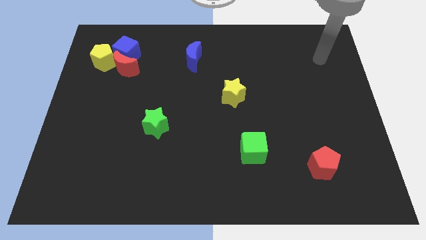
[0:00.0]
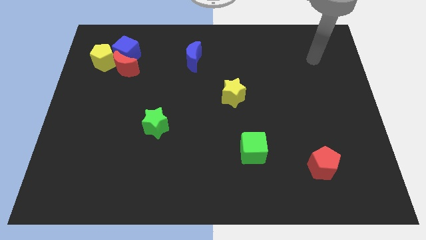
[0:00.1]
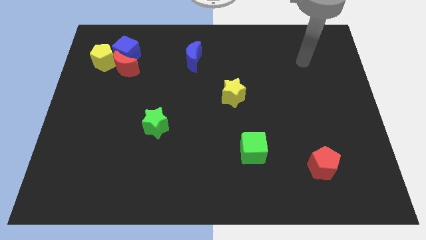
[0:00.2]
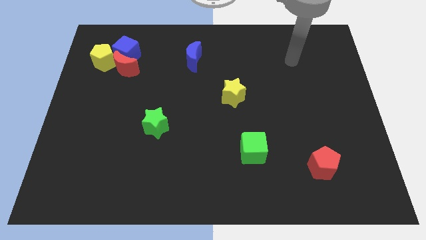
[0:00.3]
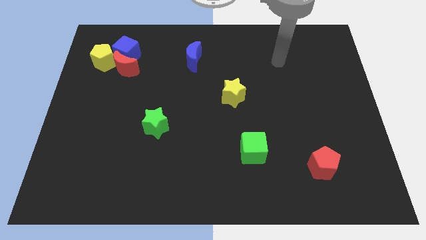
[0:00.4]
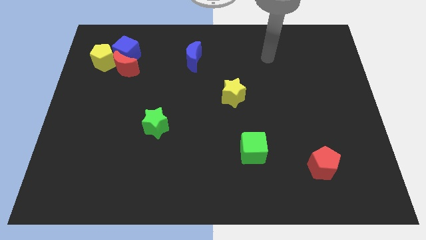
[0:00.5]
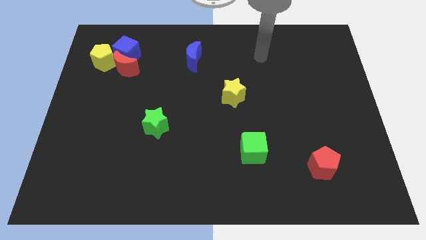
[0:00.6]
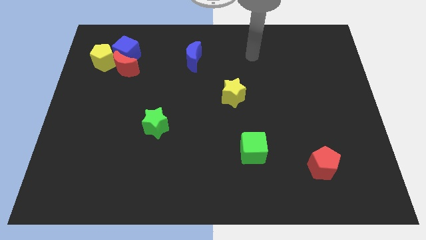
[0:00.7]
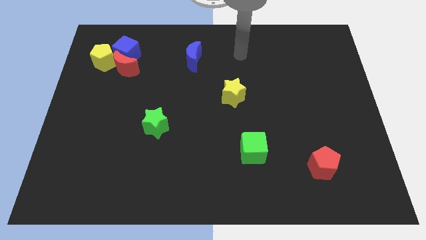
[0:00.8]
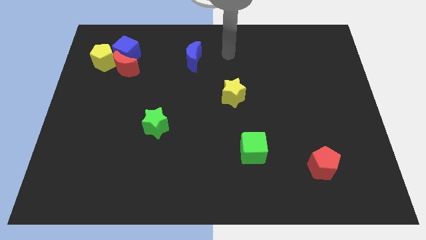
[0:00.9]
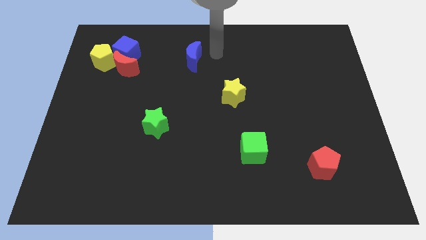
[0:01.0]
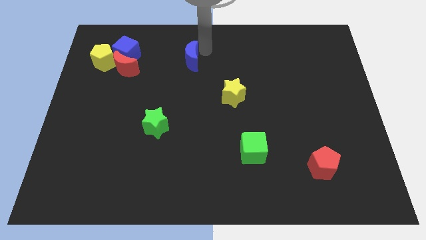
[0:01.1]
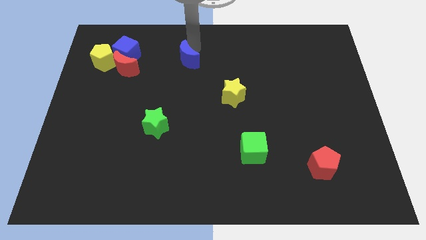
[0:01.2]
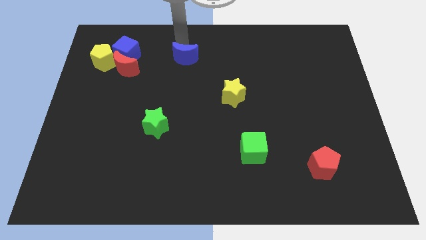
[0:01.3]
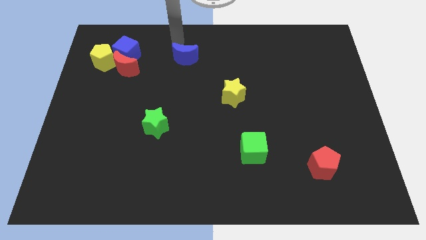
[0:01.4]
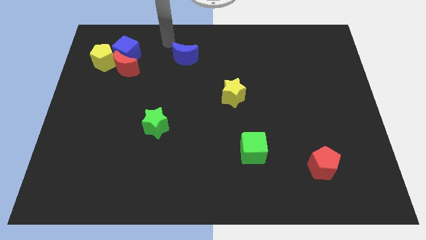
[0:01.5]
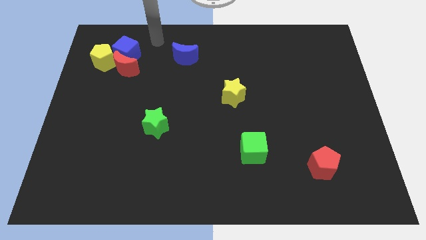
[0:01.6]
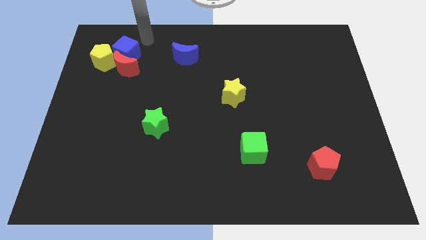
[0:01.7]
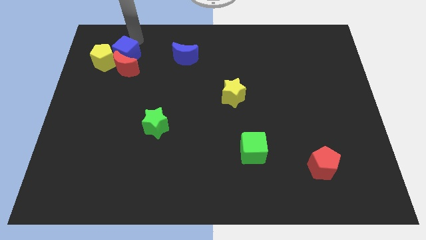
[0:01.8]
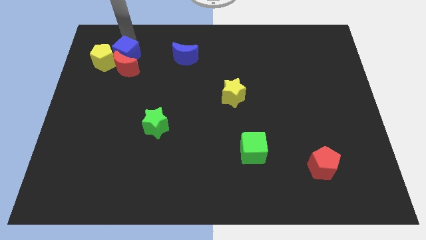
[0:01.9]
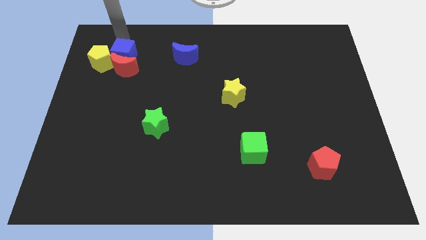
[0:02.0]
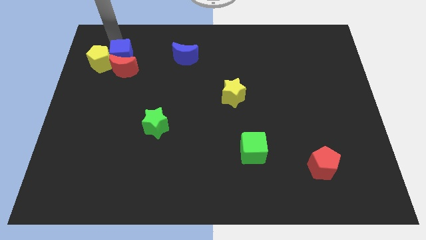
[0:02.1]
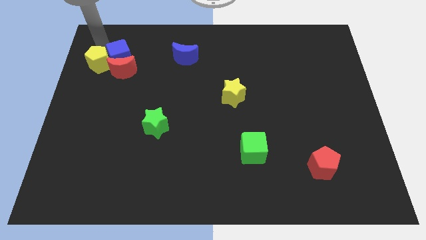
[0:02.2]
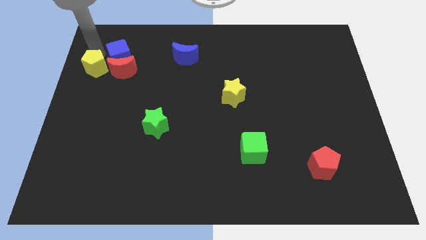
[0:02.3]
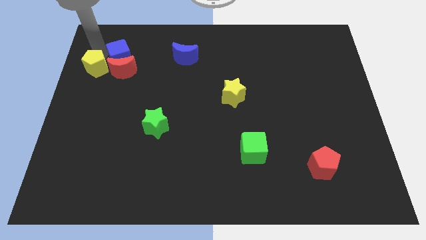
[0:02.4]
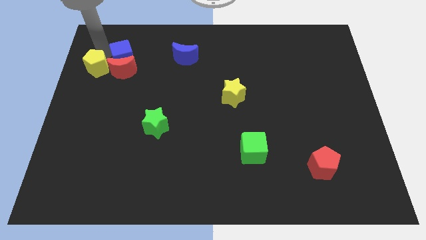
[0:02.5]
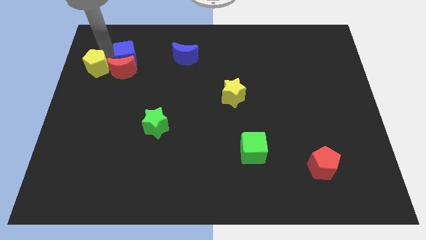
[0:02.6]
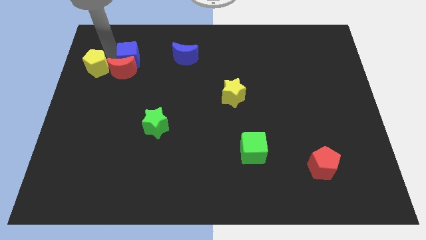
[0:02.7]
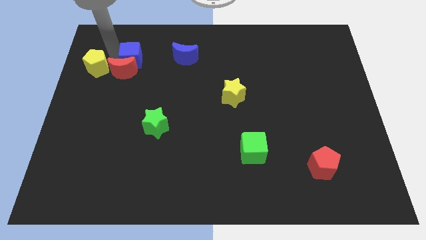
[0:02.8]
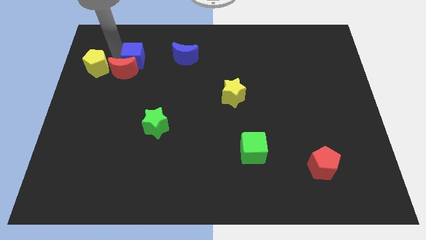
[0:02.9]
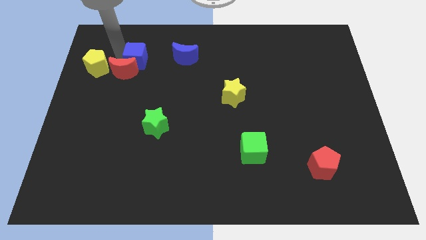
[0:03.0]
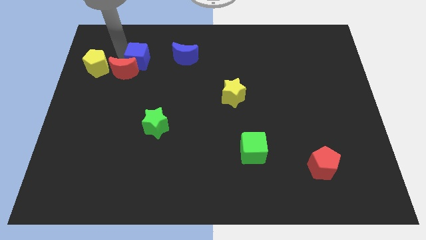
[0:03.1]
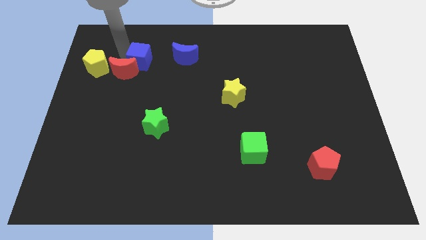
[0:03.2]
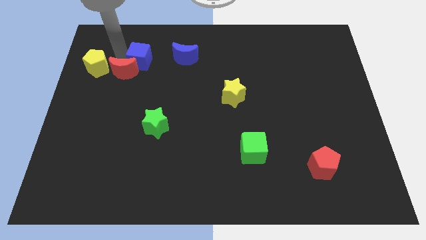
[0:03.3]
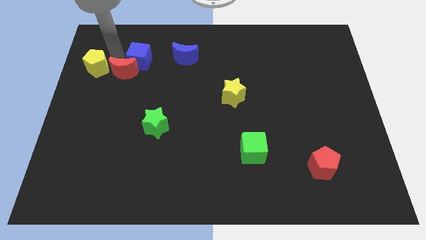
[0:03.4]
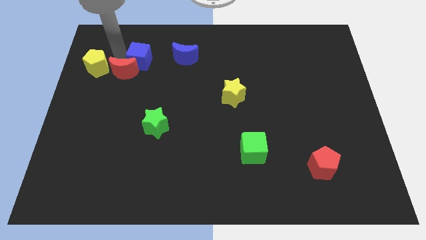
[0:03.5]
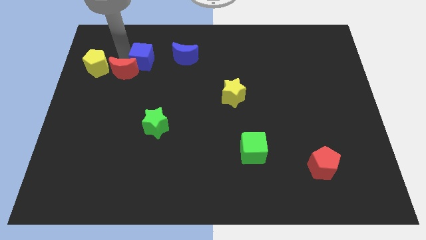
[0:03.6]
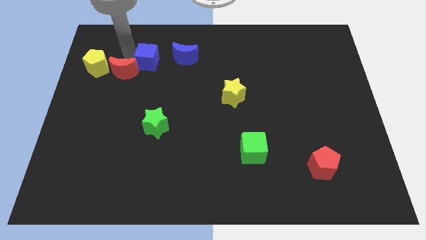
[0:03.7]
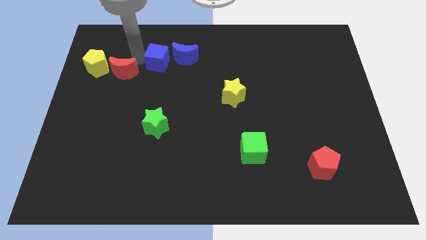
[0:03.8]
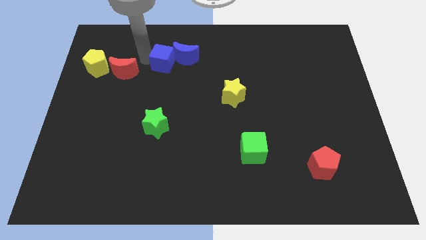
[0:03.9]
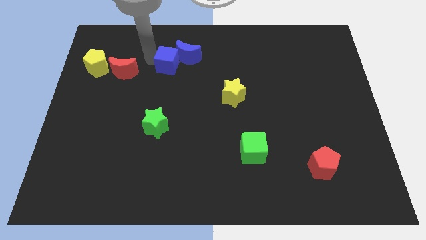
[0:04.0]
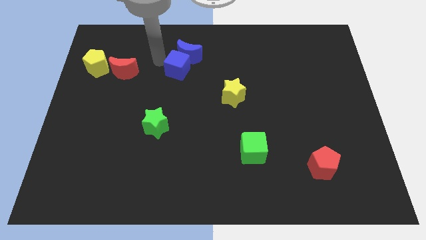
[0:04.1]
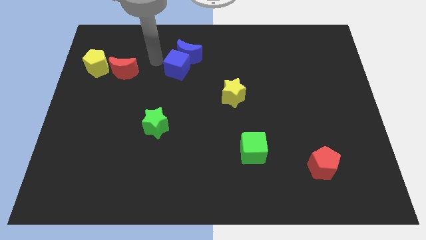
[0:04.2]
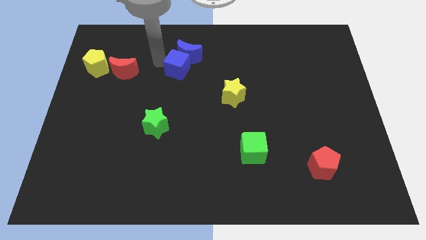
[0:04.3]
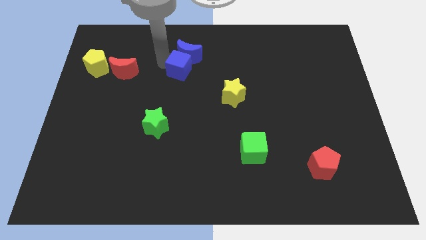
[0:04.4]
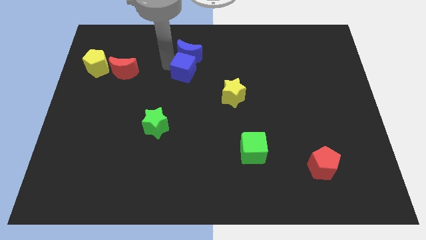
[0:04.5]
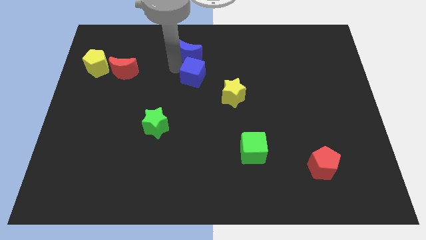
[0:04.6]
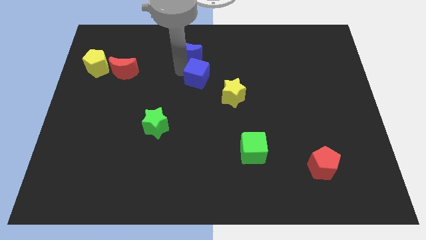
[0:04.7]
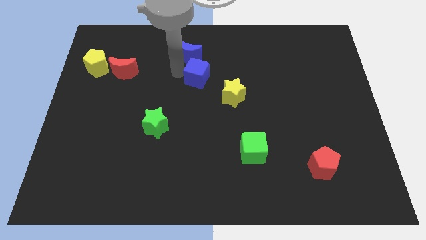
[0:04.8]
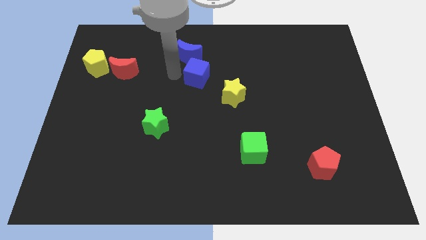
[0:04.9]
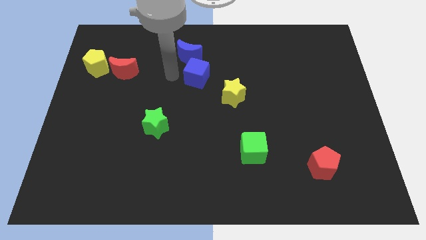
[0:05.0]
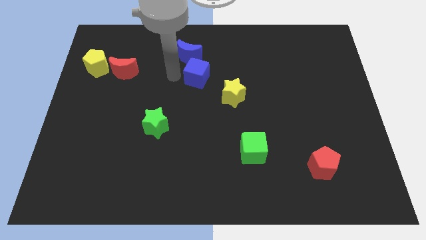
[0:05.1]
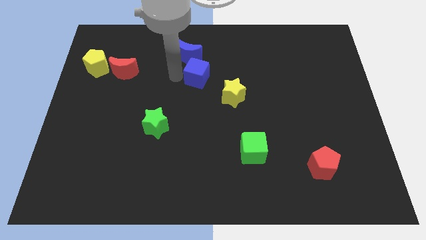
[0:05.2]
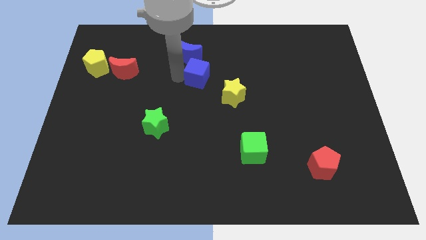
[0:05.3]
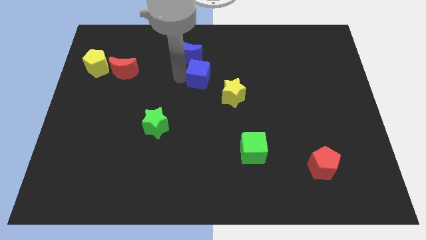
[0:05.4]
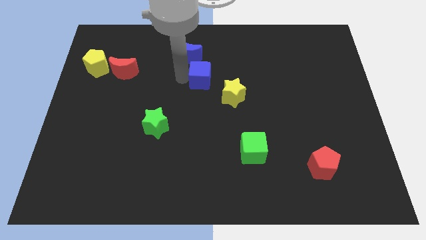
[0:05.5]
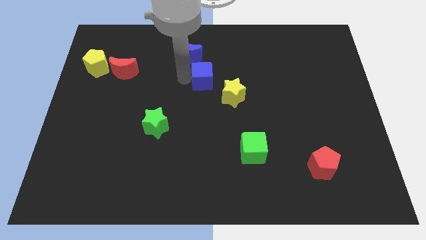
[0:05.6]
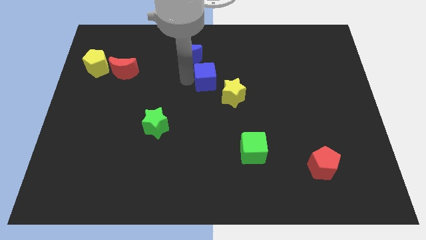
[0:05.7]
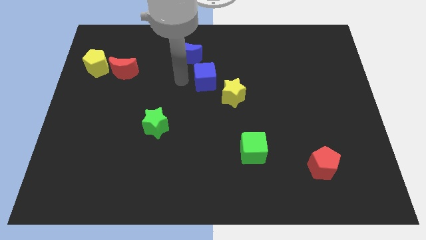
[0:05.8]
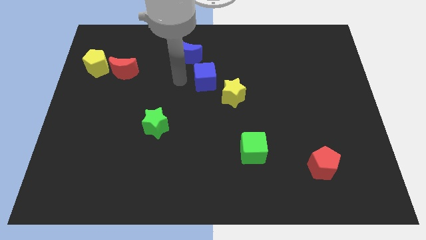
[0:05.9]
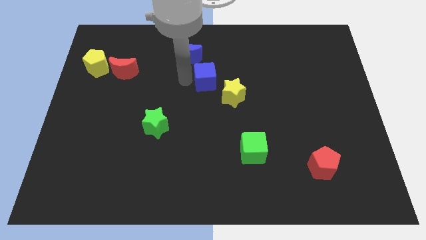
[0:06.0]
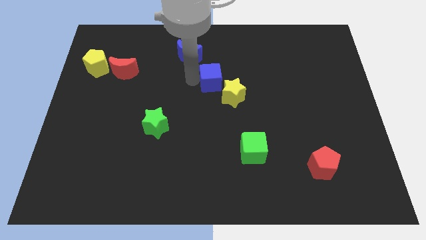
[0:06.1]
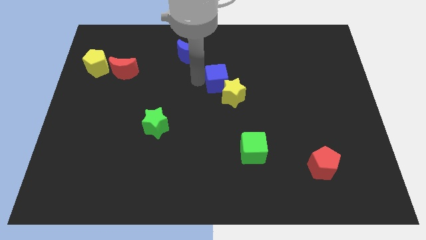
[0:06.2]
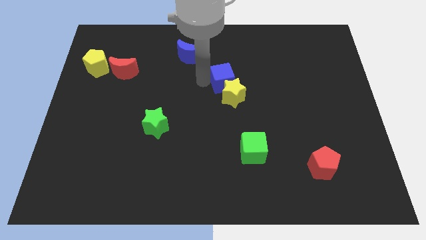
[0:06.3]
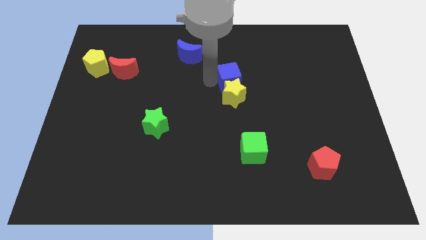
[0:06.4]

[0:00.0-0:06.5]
push the blue cube to the top right side of the yellow star

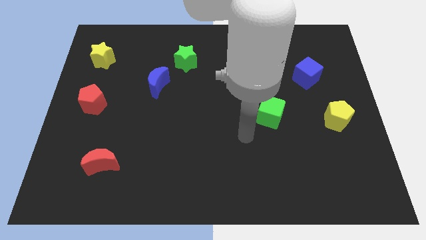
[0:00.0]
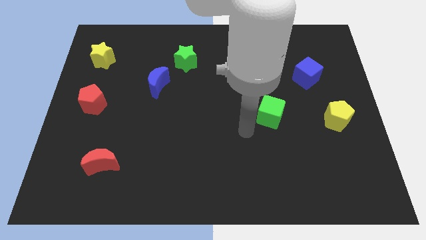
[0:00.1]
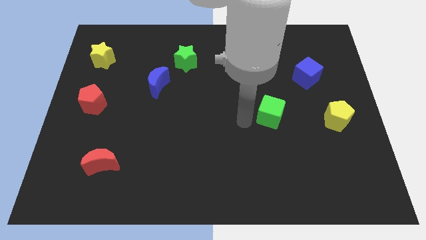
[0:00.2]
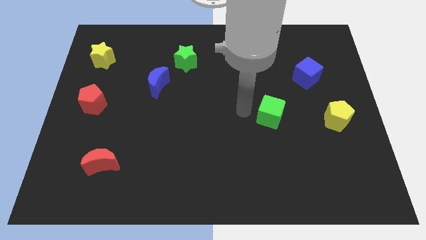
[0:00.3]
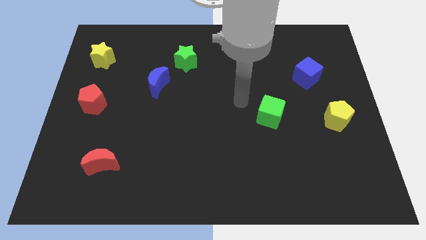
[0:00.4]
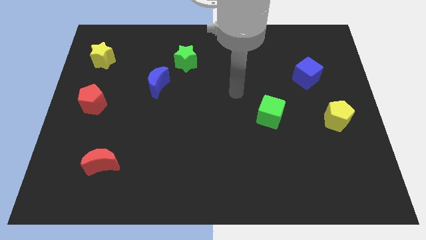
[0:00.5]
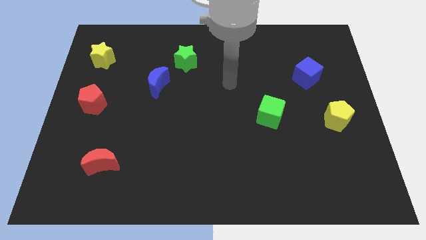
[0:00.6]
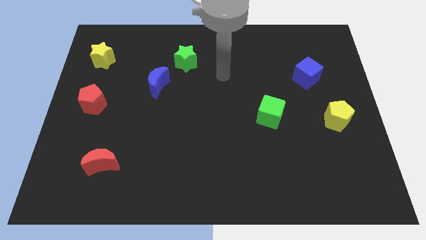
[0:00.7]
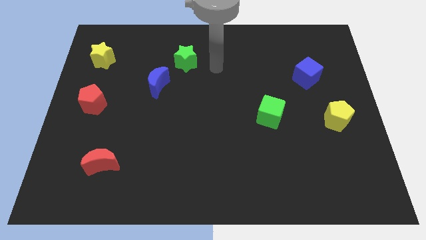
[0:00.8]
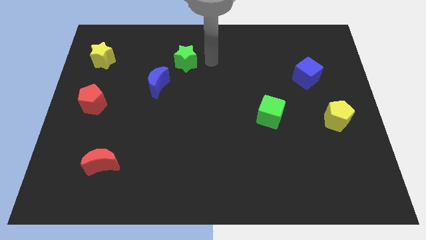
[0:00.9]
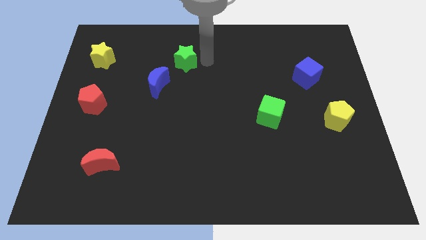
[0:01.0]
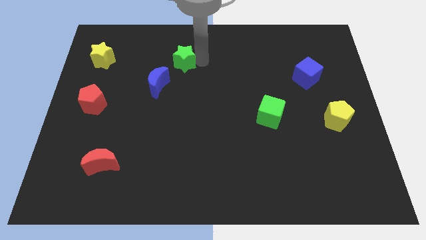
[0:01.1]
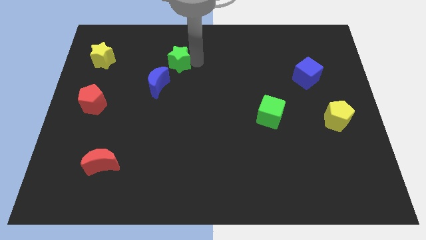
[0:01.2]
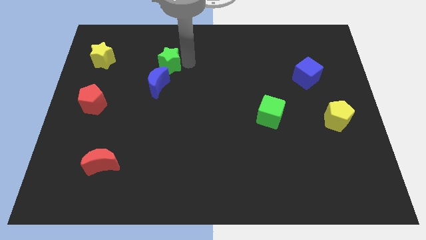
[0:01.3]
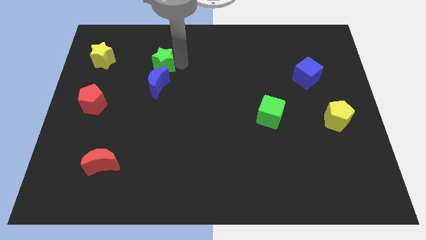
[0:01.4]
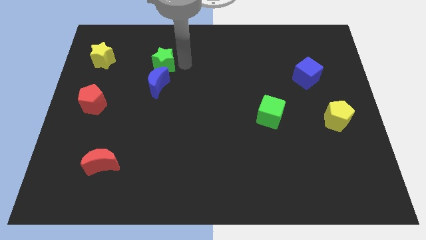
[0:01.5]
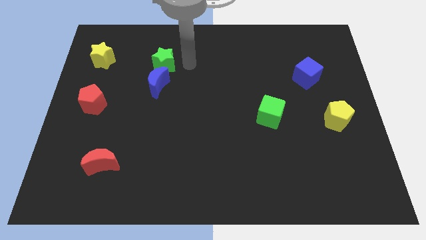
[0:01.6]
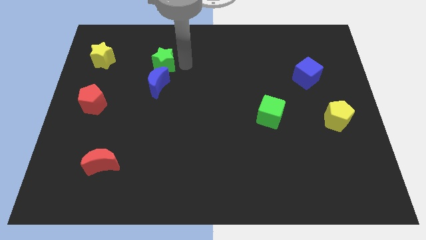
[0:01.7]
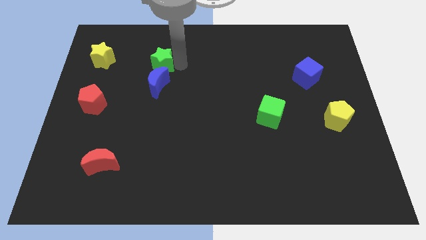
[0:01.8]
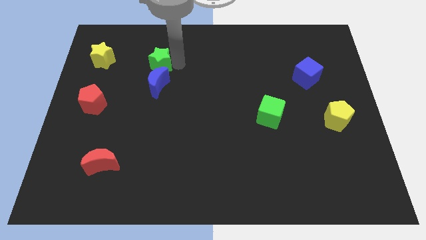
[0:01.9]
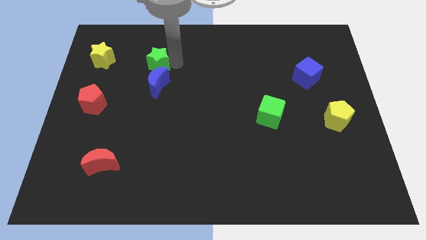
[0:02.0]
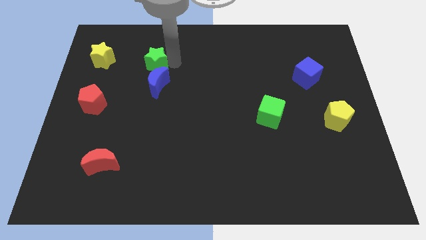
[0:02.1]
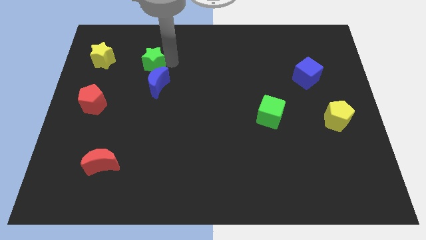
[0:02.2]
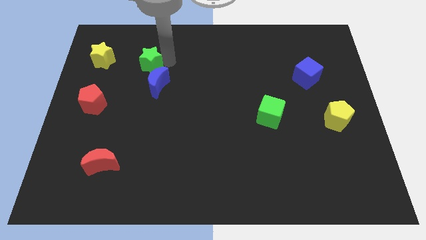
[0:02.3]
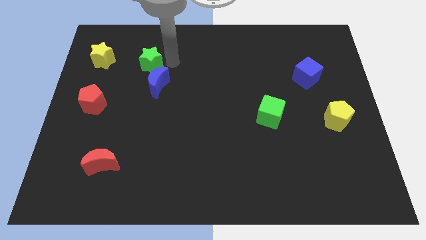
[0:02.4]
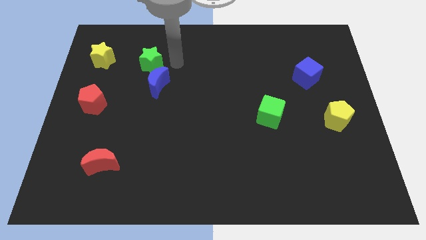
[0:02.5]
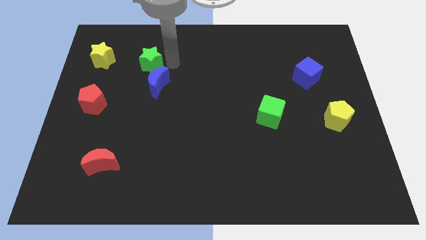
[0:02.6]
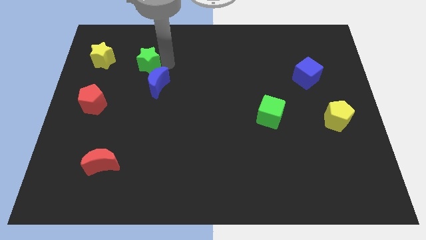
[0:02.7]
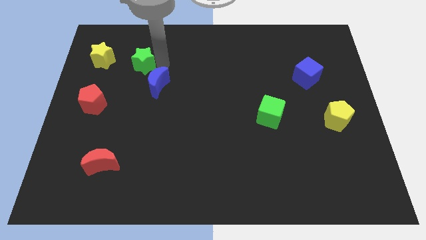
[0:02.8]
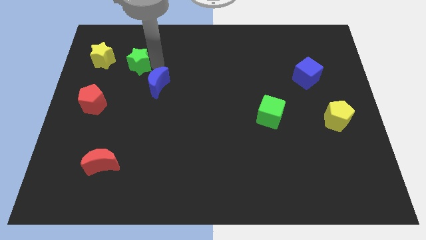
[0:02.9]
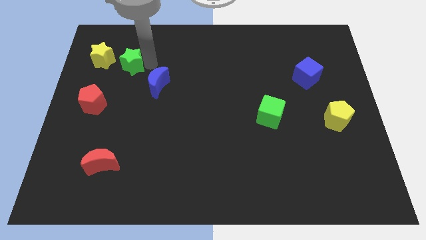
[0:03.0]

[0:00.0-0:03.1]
move the green star to the bottom right of the yellow star
